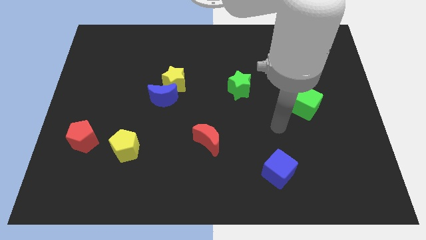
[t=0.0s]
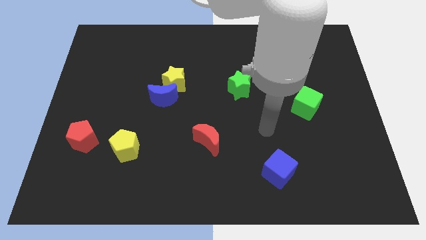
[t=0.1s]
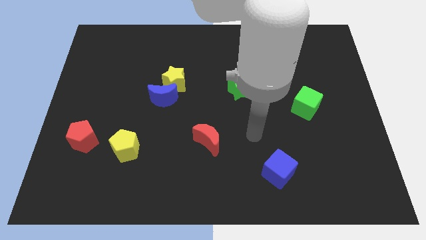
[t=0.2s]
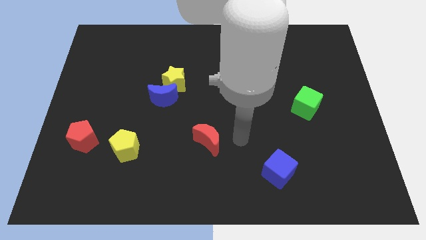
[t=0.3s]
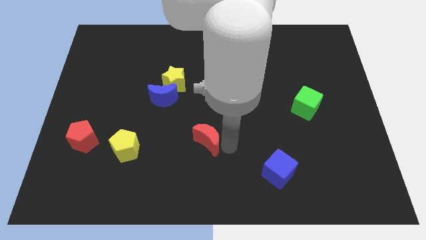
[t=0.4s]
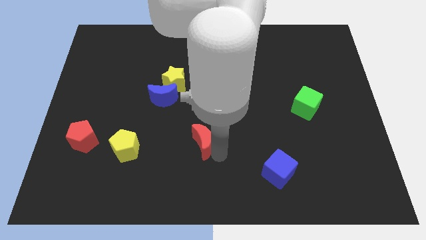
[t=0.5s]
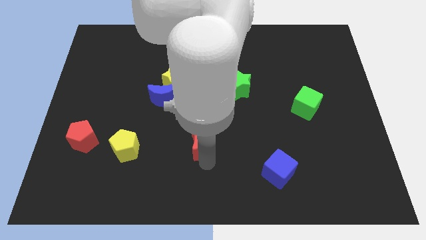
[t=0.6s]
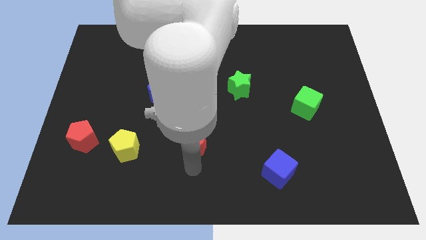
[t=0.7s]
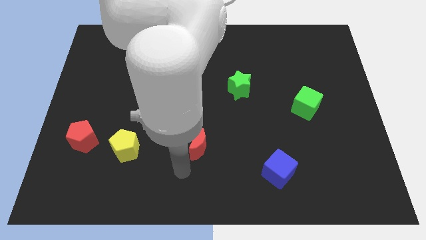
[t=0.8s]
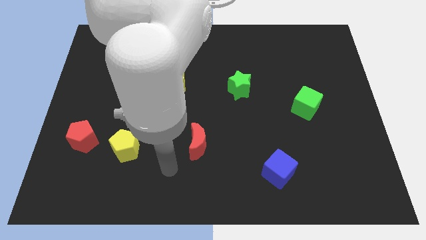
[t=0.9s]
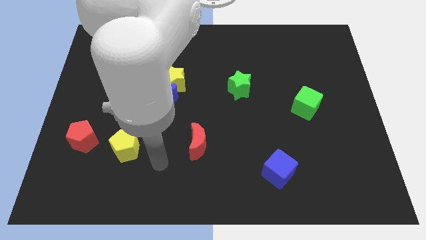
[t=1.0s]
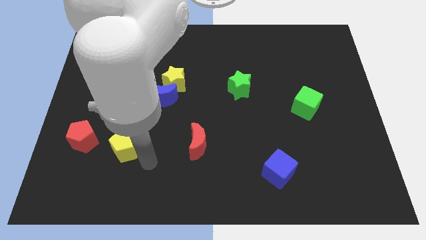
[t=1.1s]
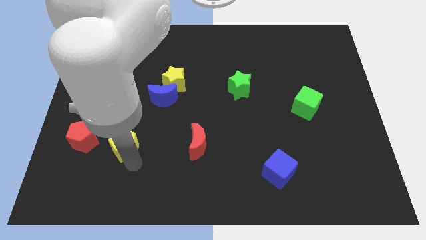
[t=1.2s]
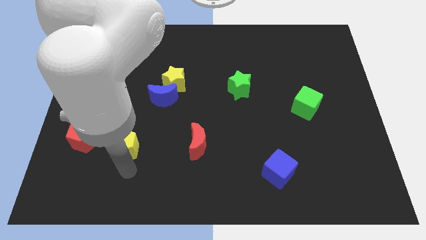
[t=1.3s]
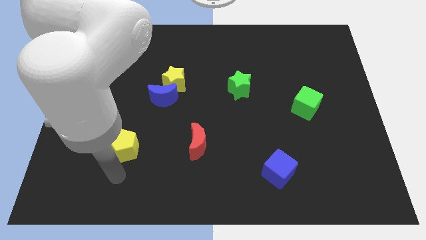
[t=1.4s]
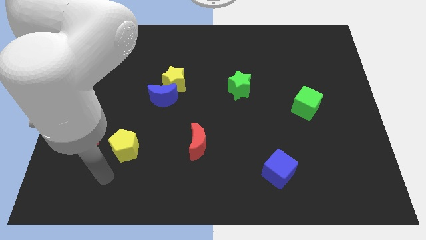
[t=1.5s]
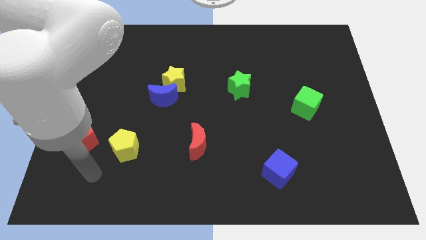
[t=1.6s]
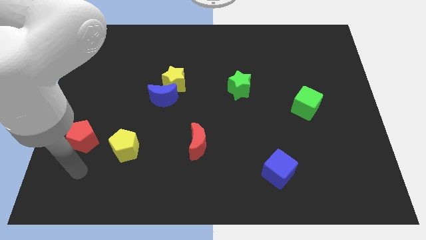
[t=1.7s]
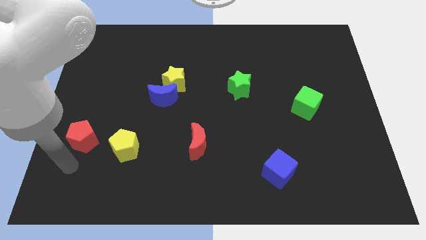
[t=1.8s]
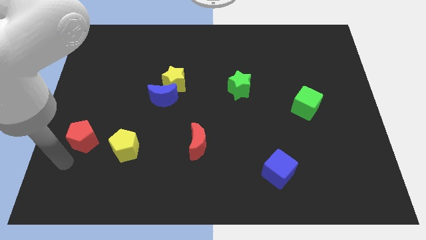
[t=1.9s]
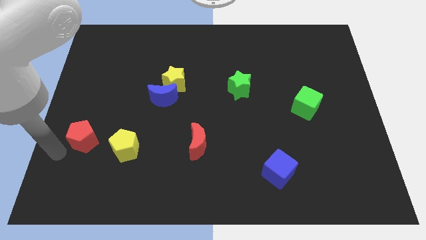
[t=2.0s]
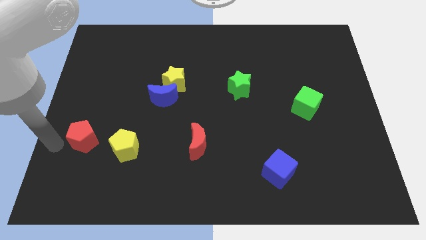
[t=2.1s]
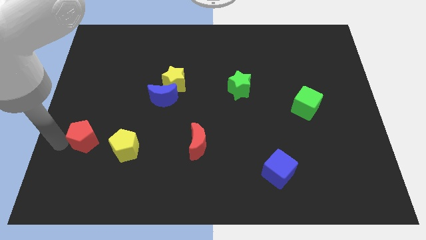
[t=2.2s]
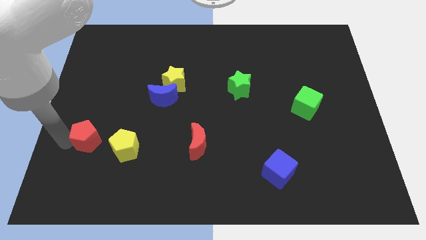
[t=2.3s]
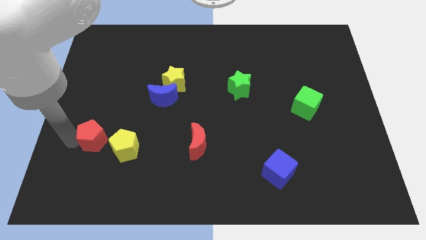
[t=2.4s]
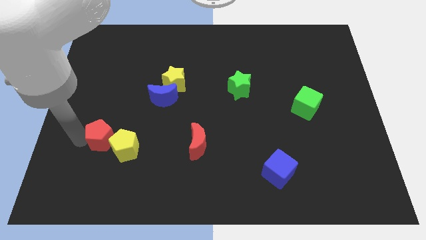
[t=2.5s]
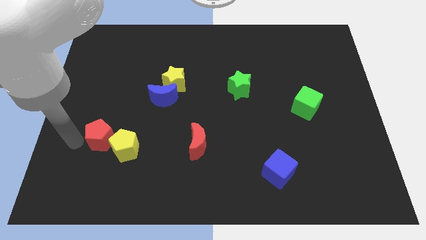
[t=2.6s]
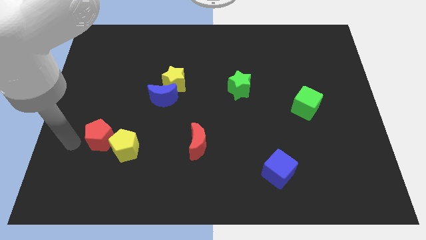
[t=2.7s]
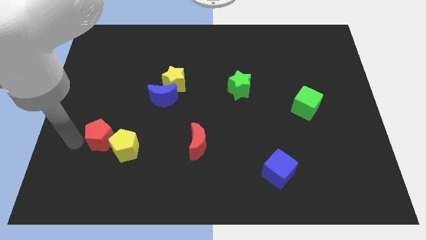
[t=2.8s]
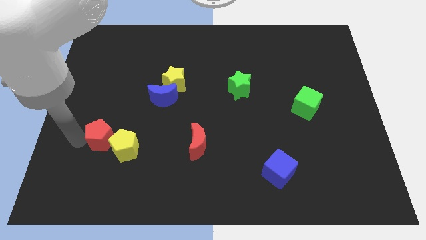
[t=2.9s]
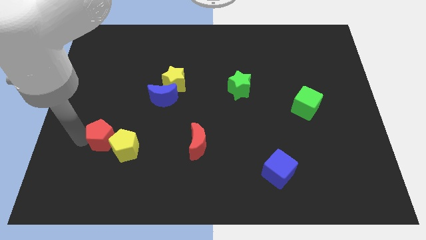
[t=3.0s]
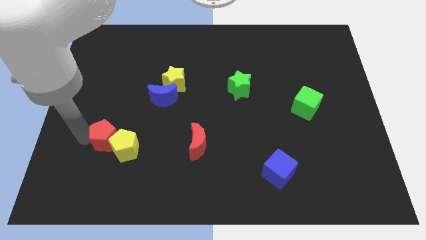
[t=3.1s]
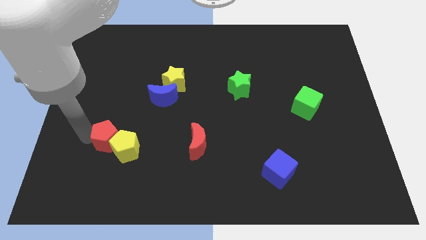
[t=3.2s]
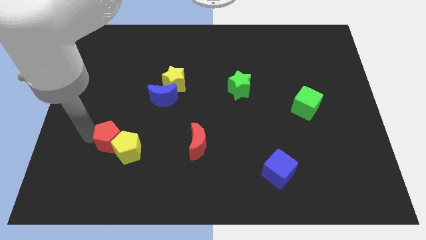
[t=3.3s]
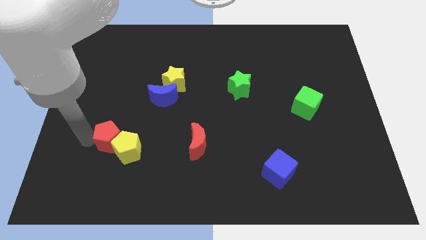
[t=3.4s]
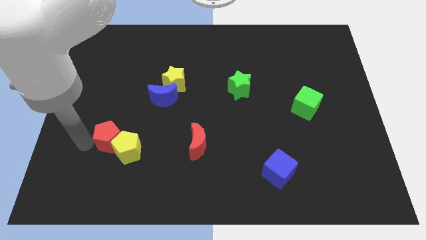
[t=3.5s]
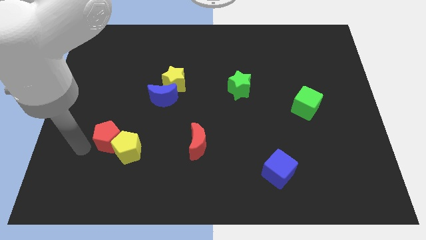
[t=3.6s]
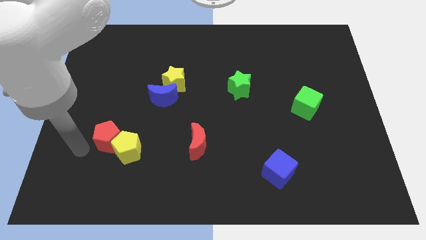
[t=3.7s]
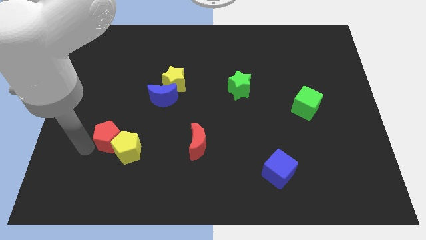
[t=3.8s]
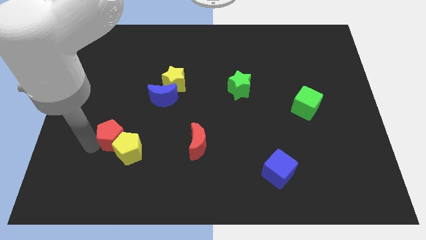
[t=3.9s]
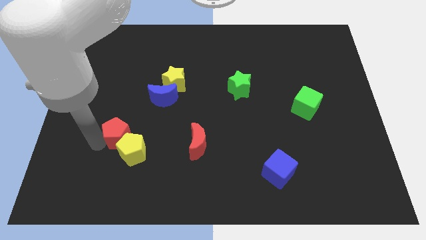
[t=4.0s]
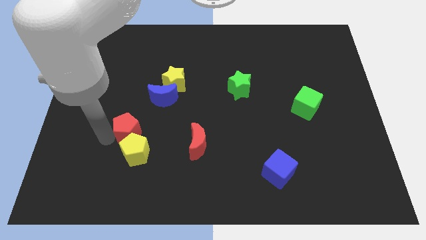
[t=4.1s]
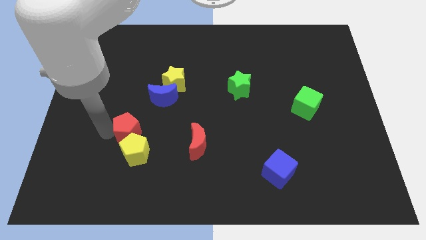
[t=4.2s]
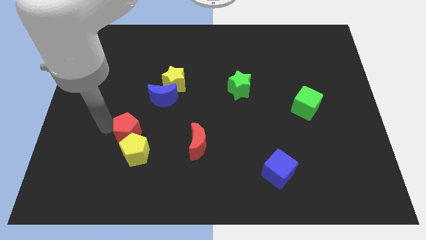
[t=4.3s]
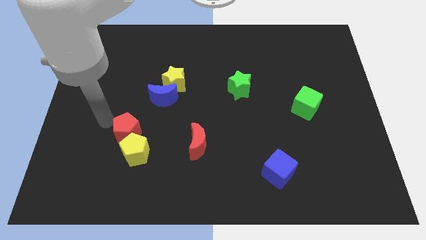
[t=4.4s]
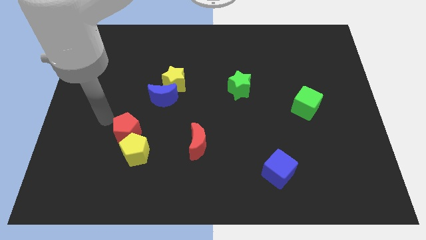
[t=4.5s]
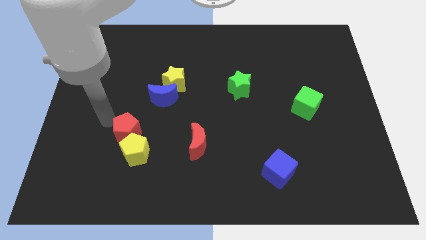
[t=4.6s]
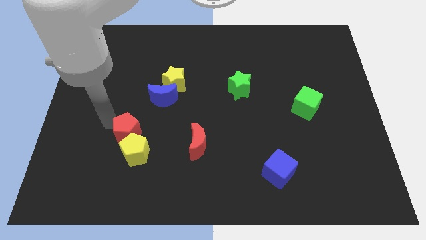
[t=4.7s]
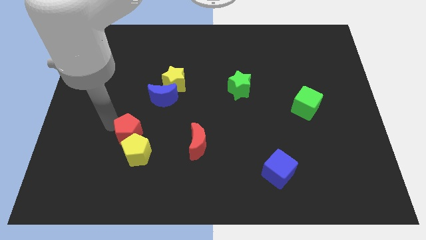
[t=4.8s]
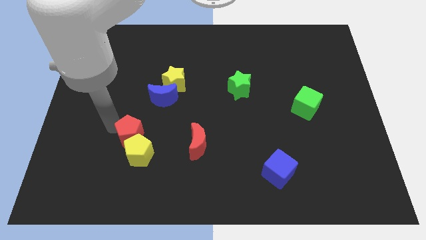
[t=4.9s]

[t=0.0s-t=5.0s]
push the red pentagon left of the red moon

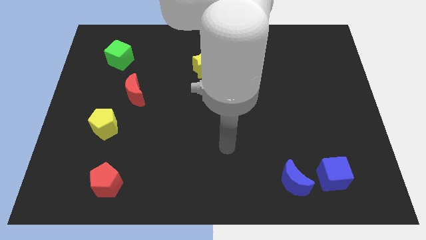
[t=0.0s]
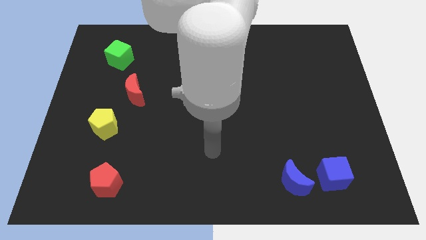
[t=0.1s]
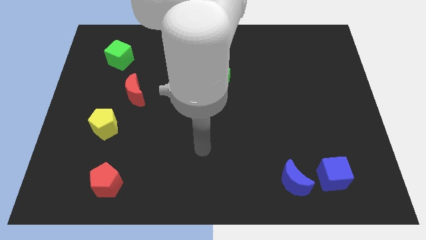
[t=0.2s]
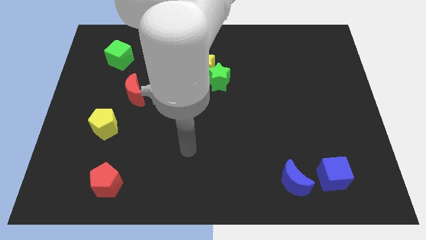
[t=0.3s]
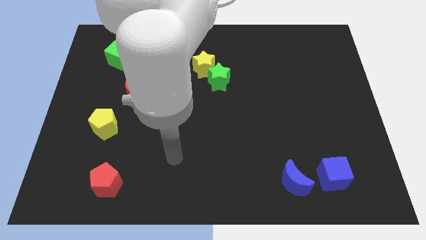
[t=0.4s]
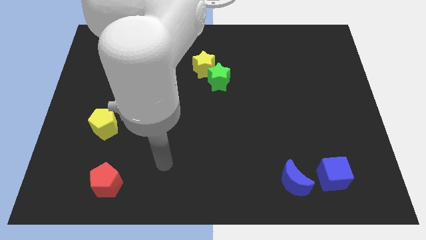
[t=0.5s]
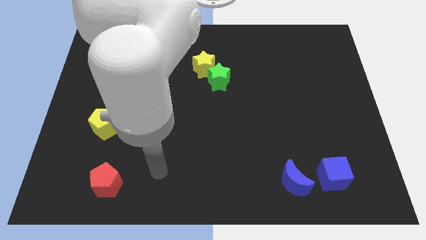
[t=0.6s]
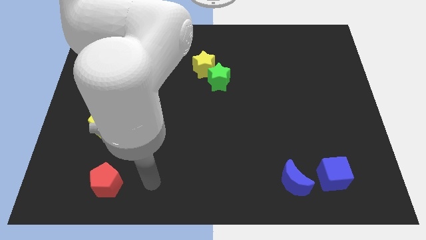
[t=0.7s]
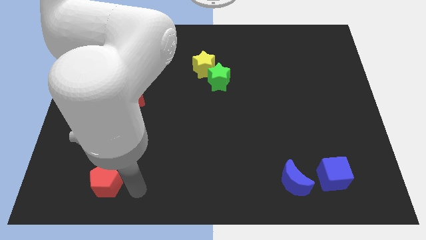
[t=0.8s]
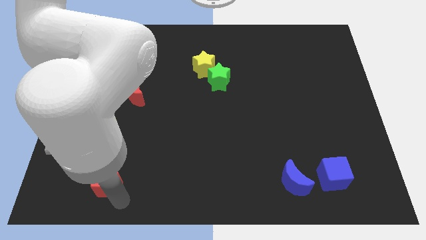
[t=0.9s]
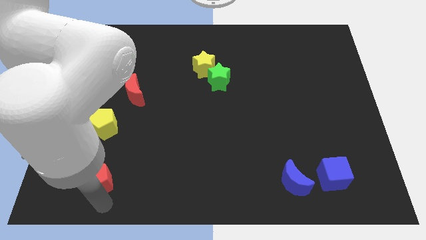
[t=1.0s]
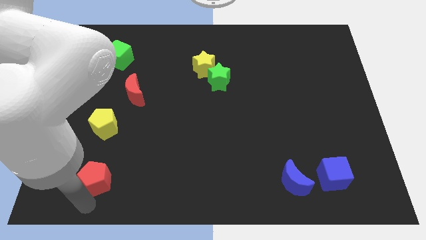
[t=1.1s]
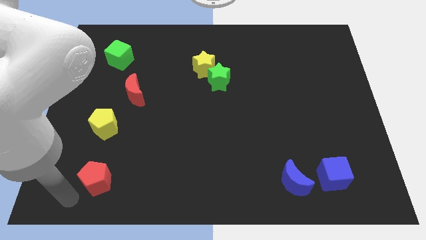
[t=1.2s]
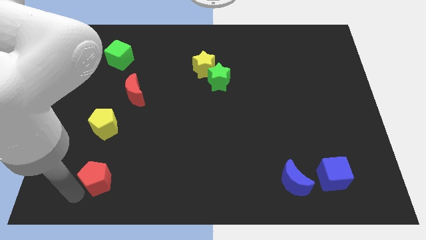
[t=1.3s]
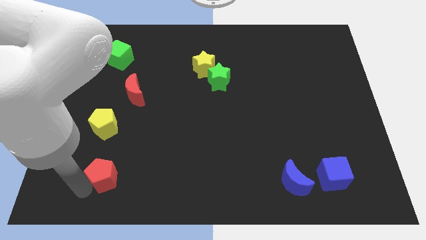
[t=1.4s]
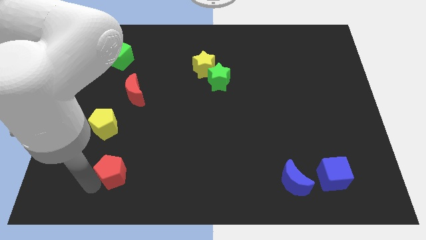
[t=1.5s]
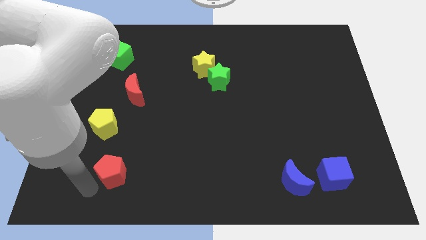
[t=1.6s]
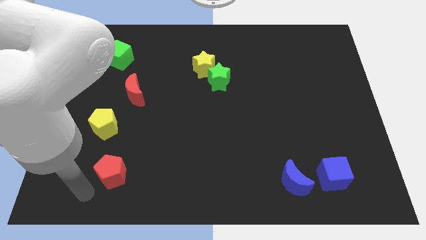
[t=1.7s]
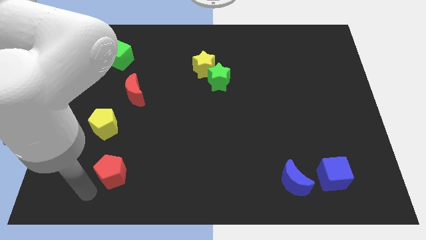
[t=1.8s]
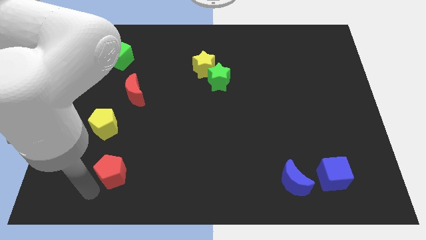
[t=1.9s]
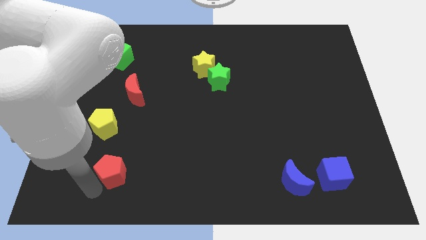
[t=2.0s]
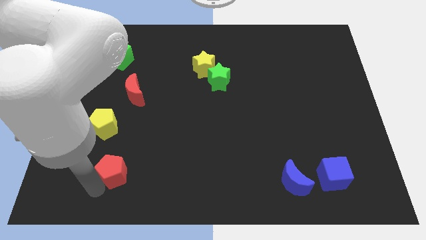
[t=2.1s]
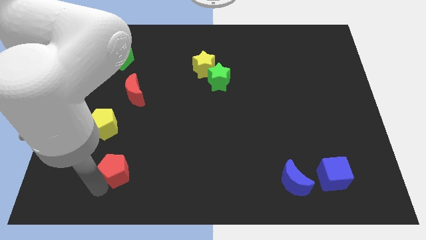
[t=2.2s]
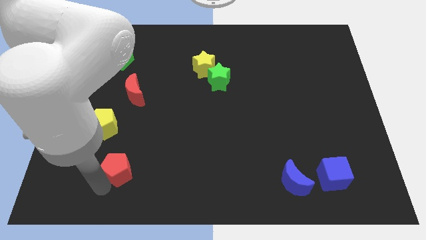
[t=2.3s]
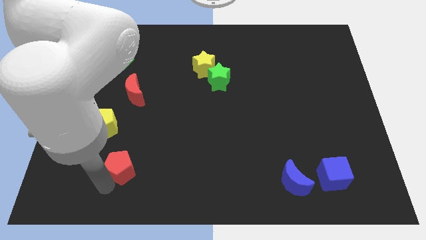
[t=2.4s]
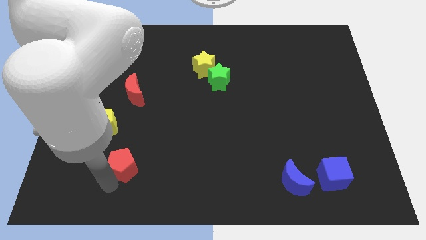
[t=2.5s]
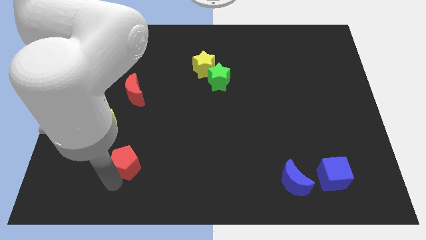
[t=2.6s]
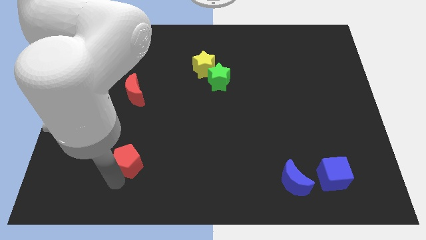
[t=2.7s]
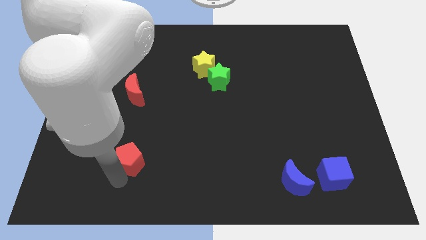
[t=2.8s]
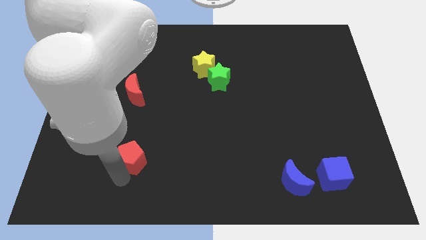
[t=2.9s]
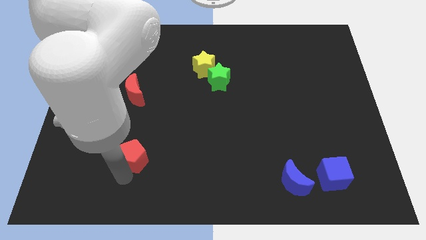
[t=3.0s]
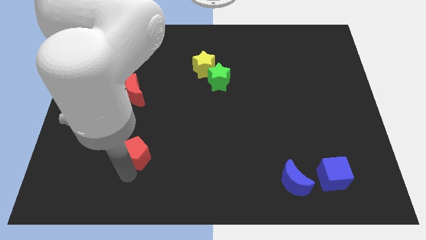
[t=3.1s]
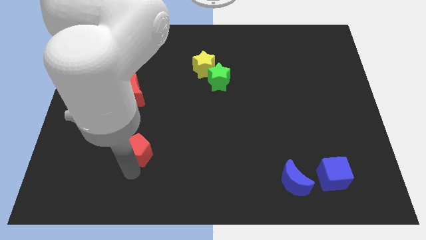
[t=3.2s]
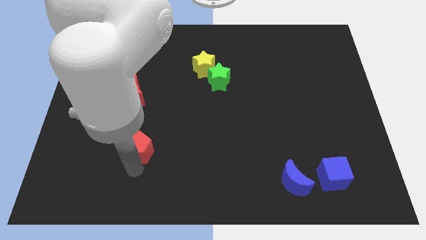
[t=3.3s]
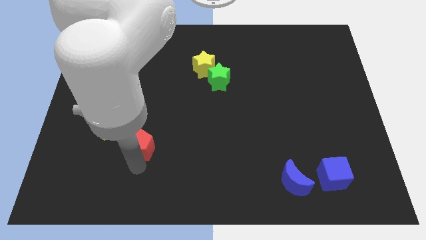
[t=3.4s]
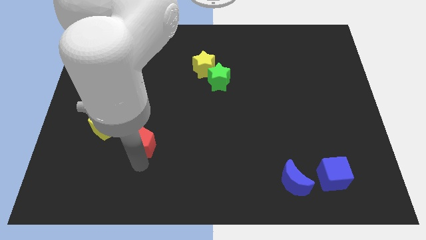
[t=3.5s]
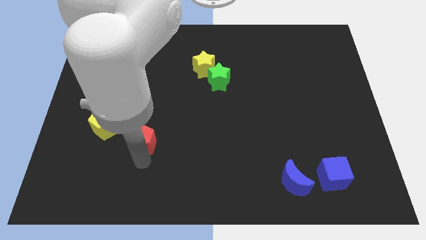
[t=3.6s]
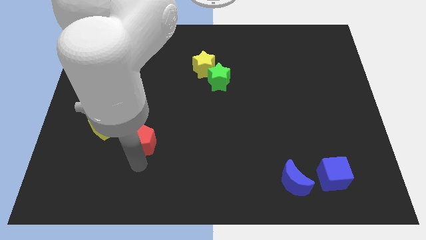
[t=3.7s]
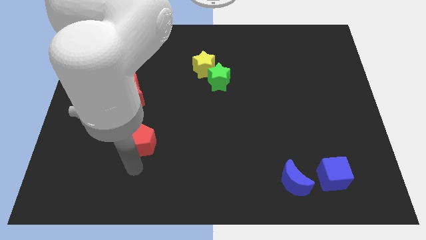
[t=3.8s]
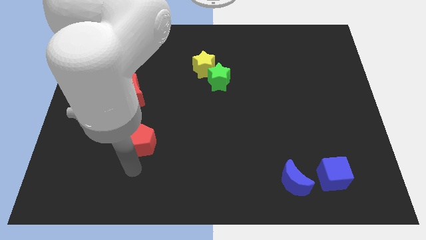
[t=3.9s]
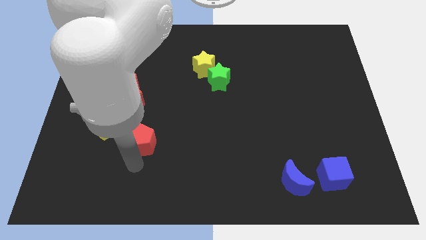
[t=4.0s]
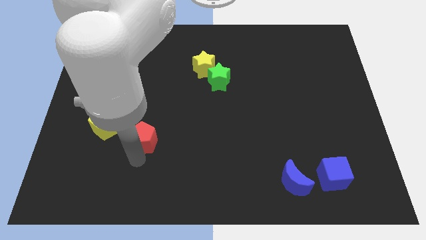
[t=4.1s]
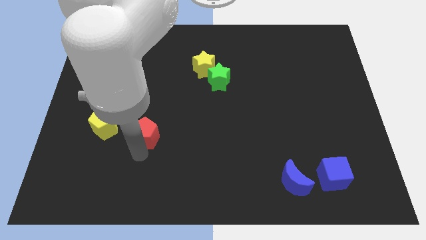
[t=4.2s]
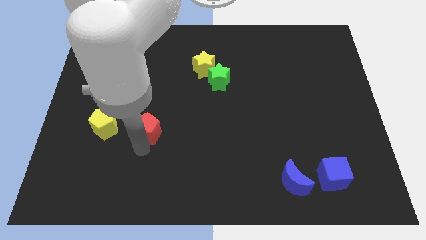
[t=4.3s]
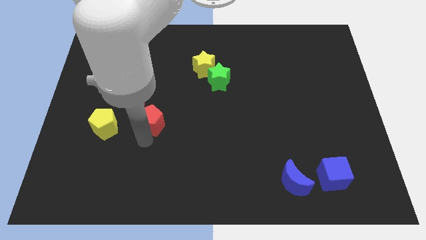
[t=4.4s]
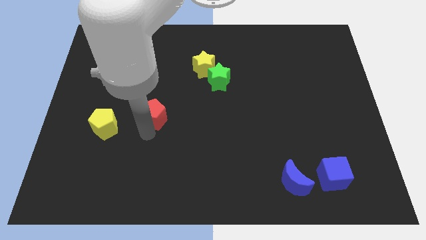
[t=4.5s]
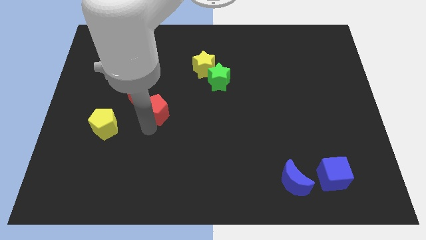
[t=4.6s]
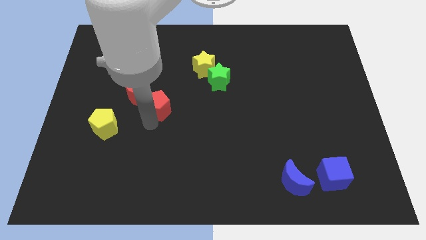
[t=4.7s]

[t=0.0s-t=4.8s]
move the red pentagon just right of the red moon
